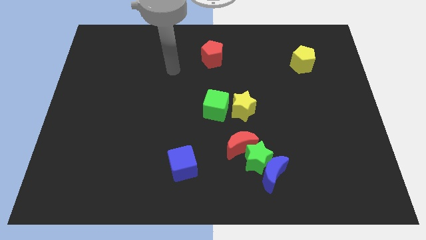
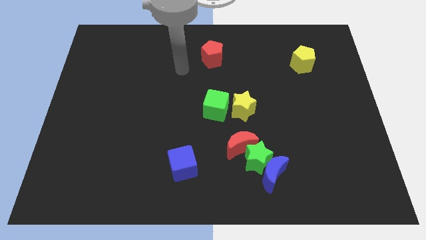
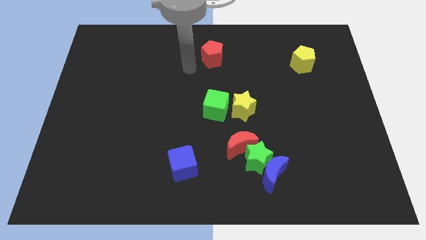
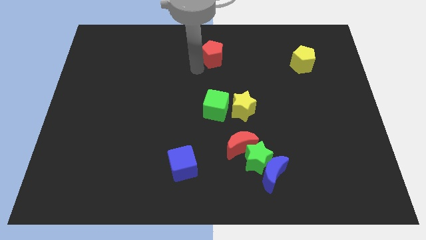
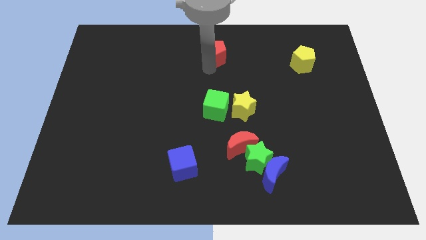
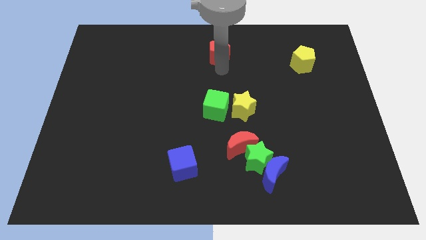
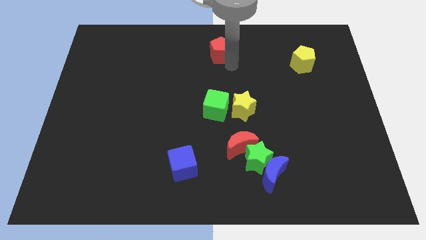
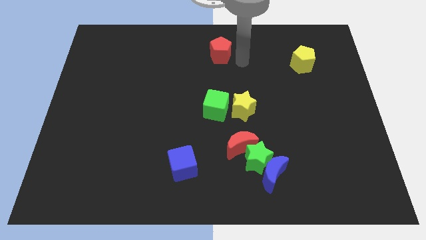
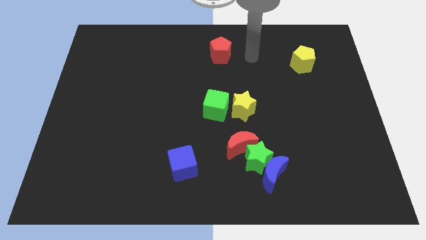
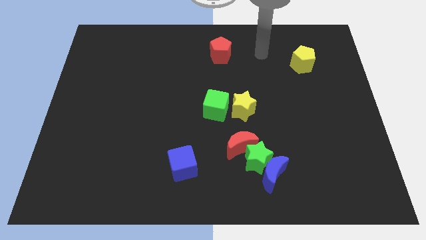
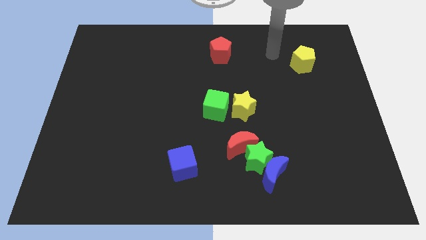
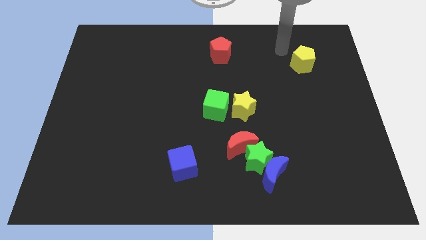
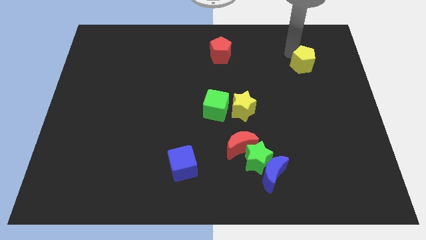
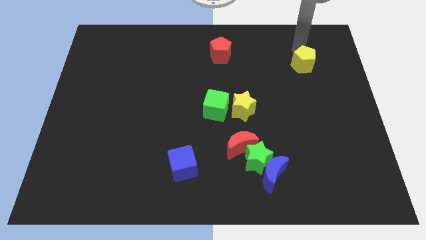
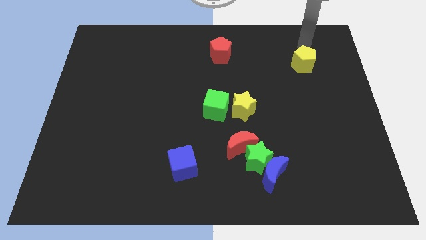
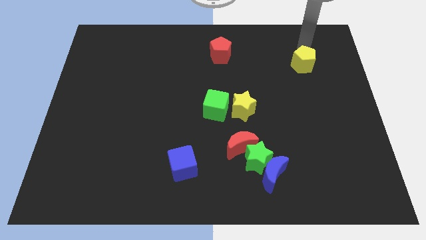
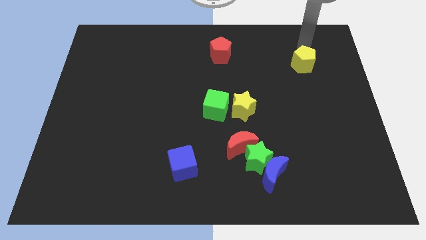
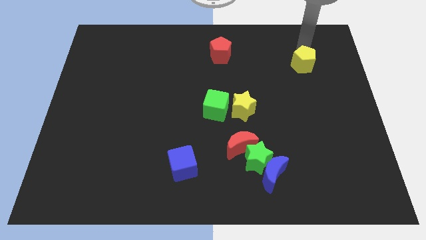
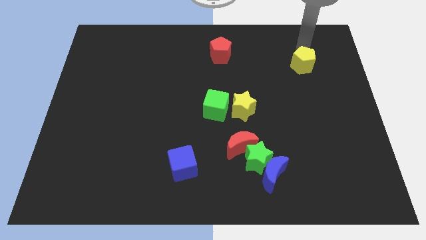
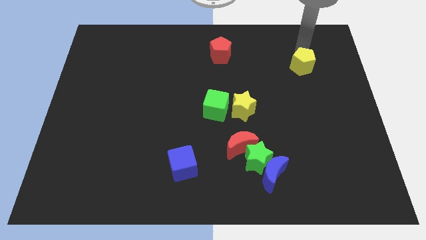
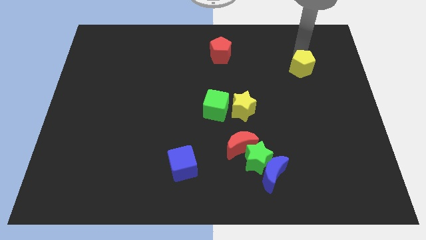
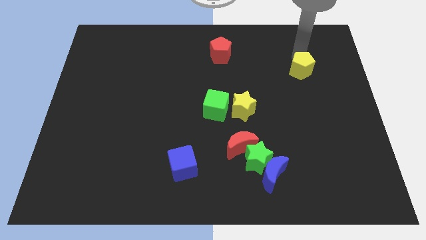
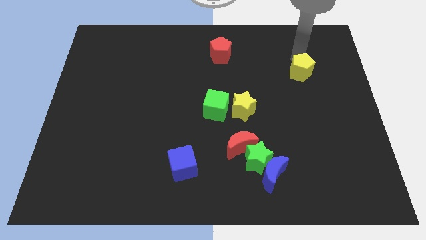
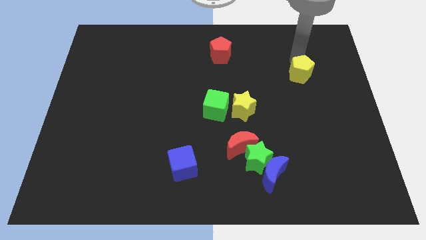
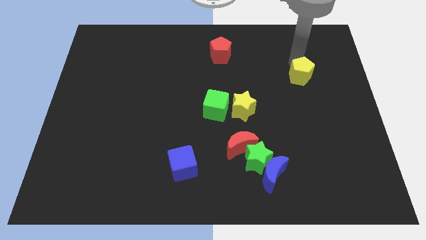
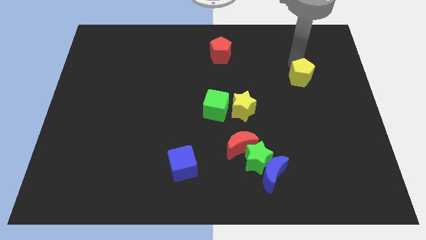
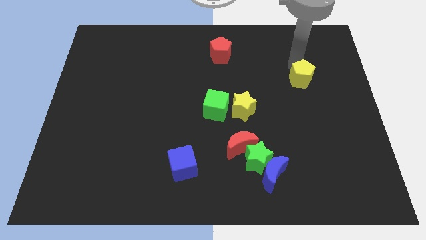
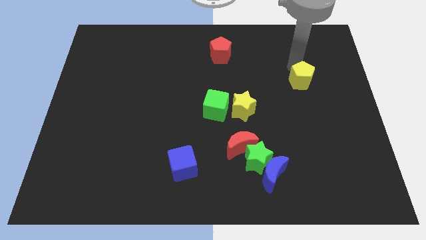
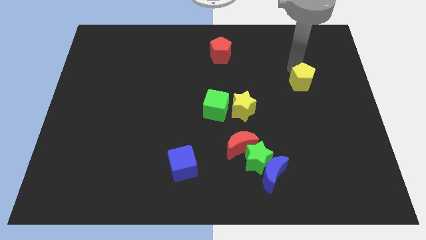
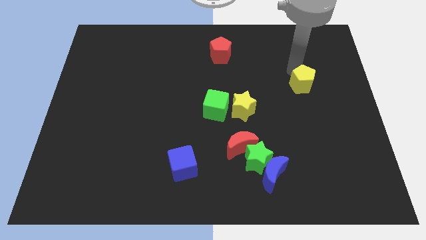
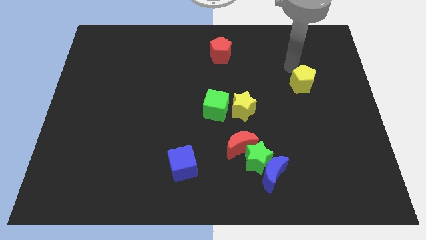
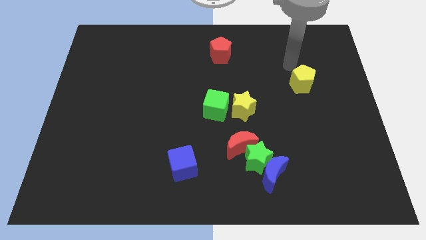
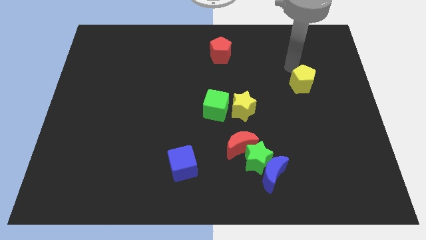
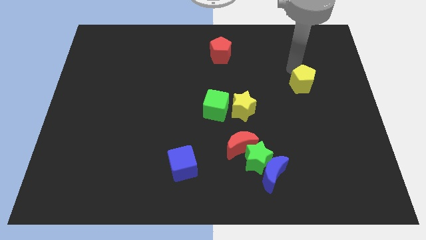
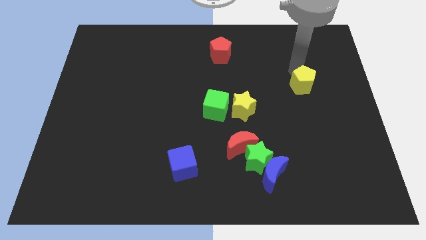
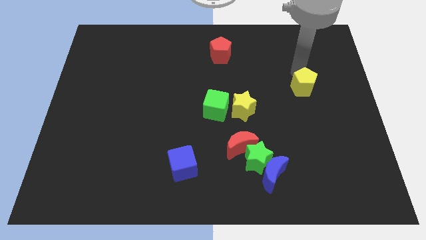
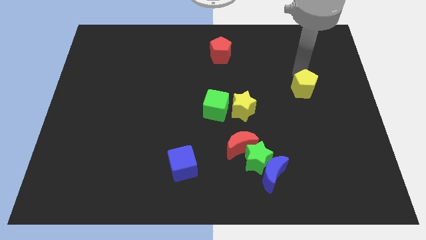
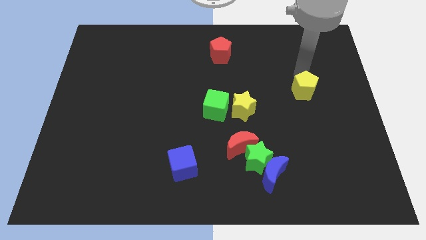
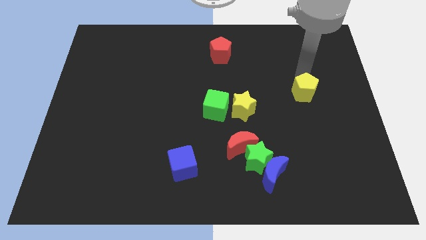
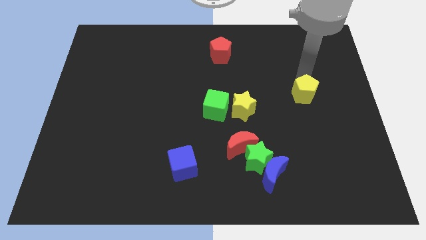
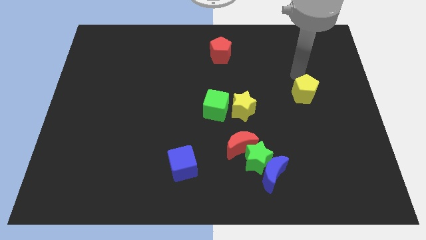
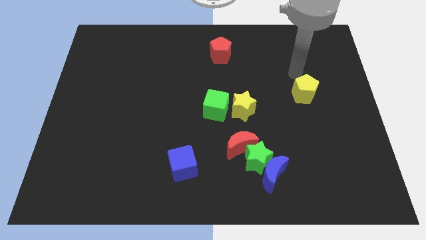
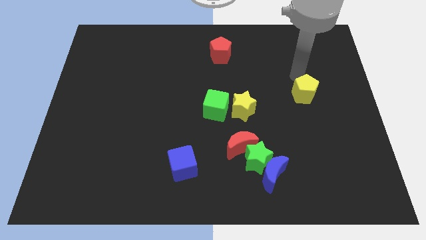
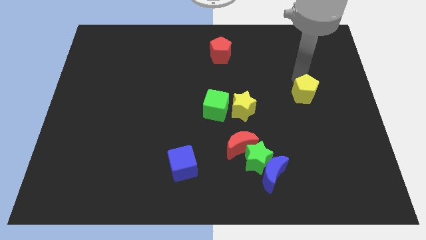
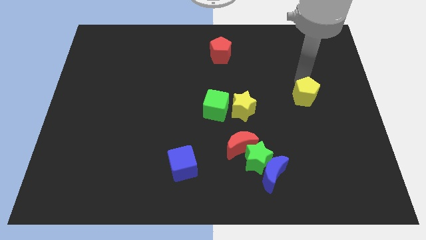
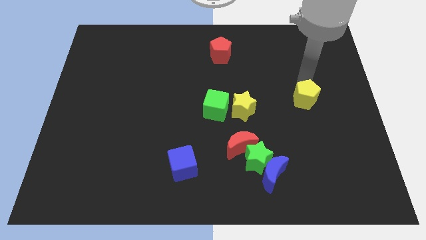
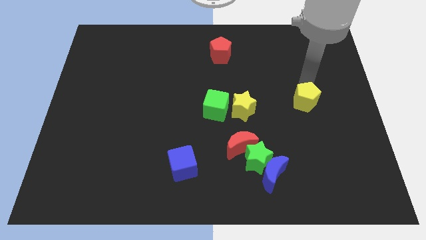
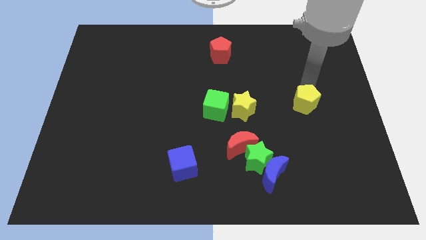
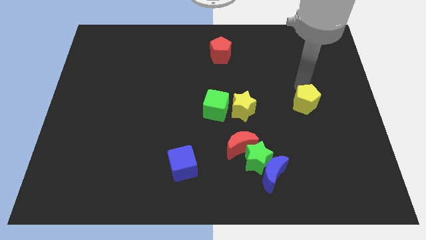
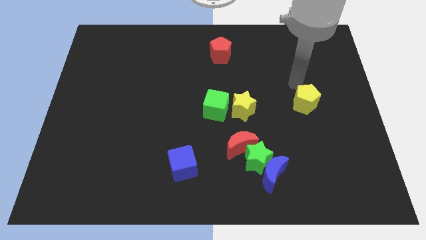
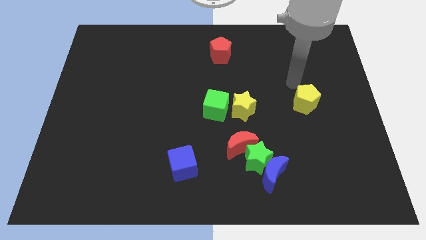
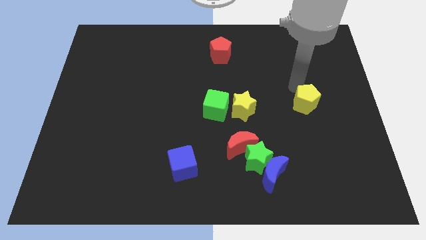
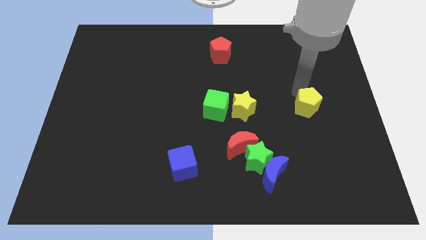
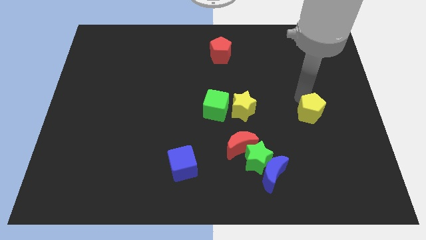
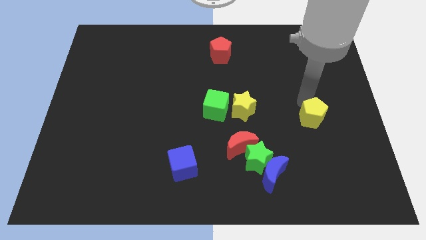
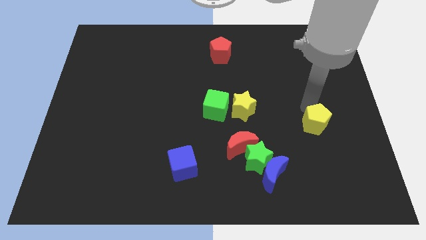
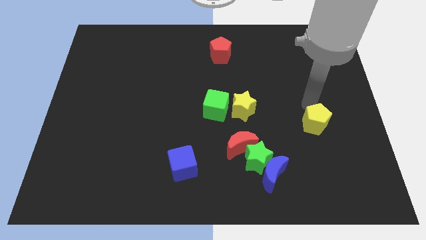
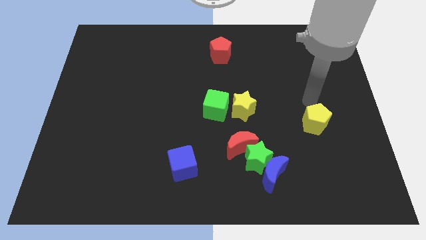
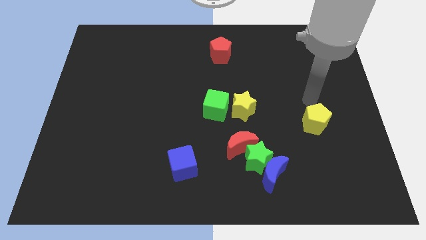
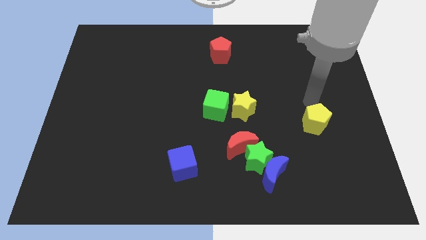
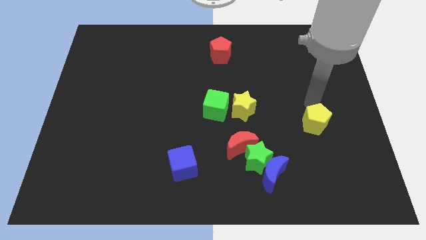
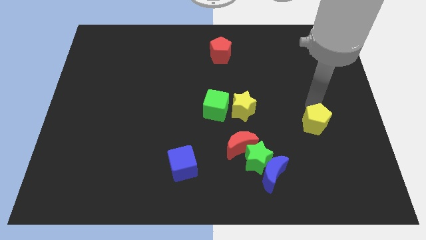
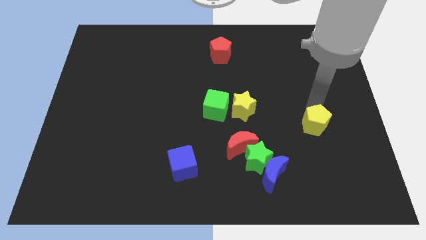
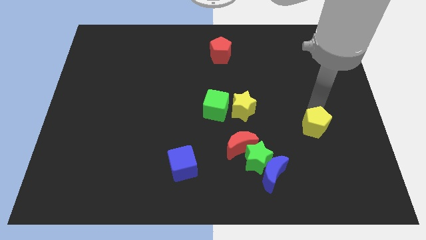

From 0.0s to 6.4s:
move the yellow pentagon downwards

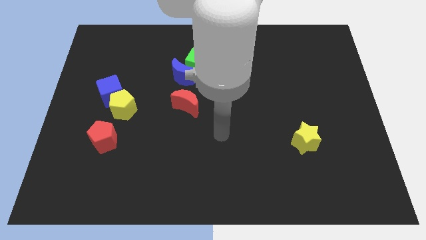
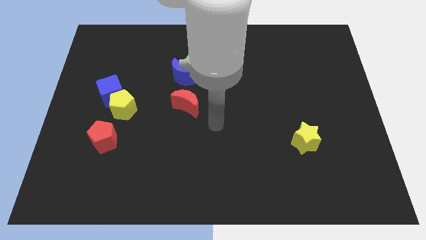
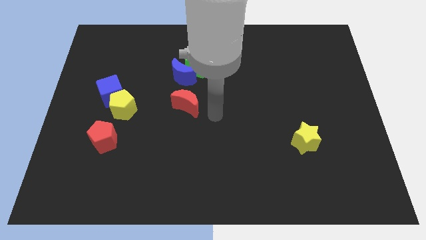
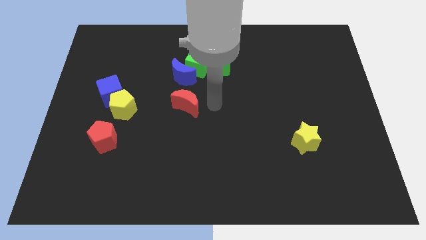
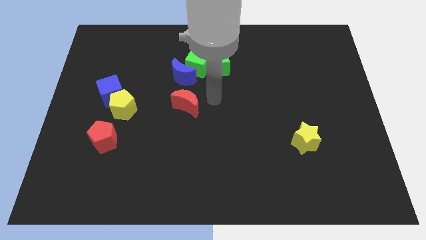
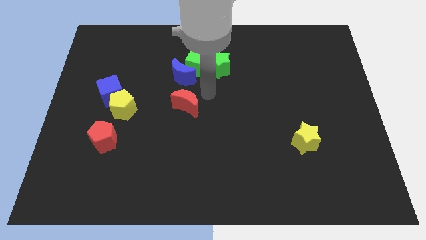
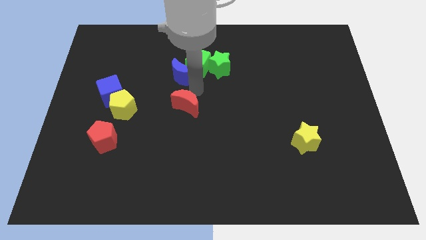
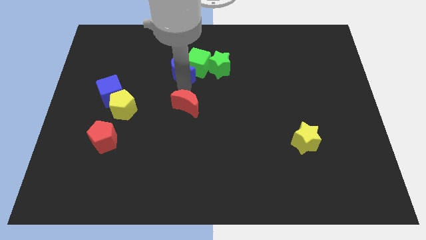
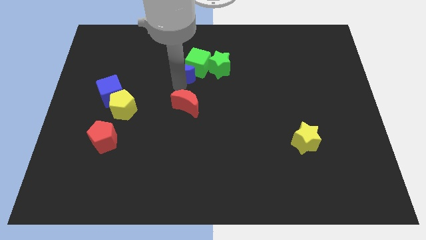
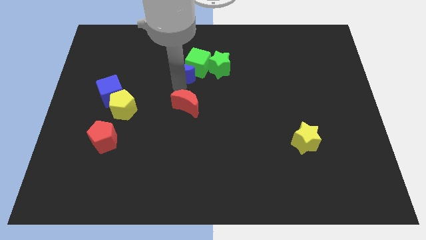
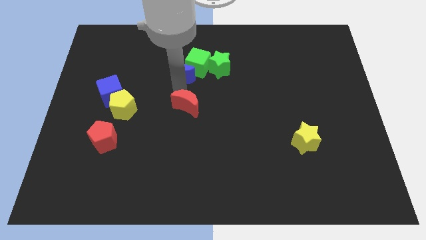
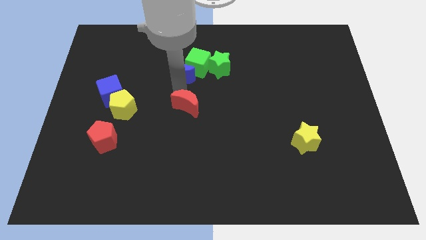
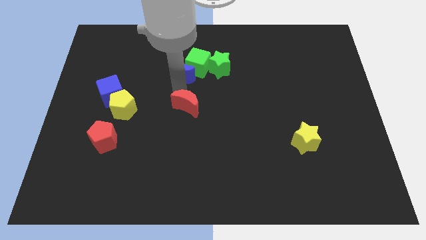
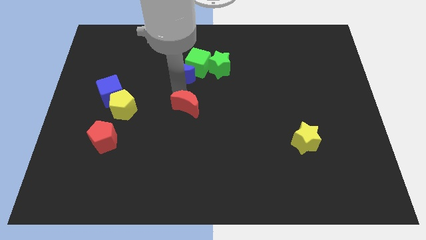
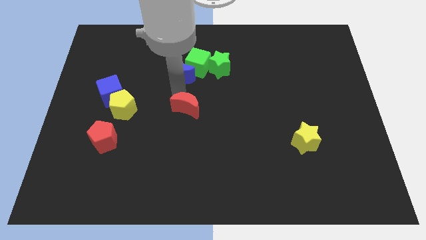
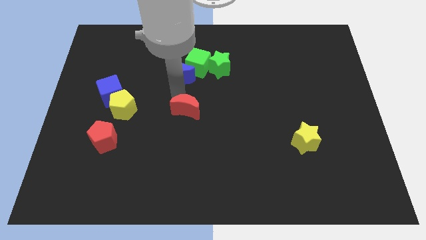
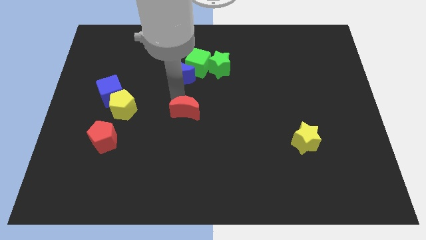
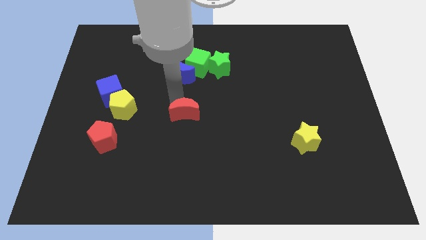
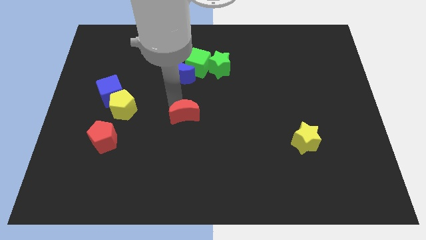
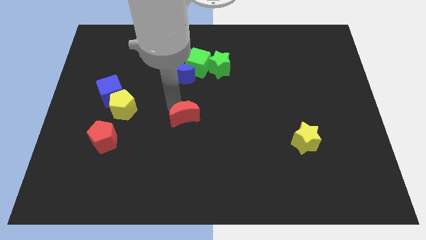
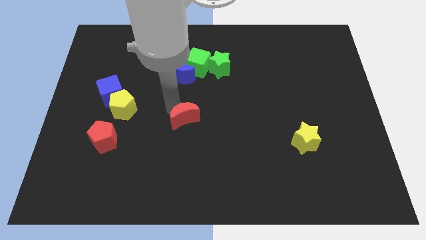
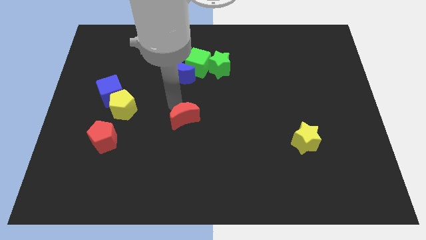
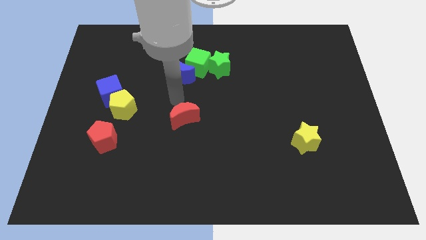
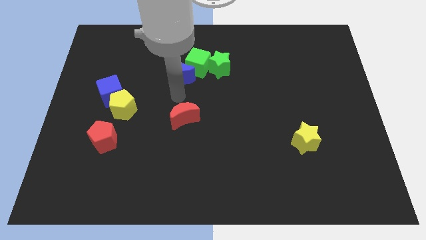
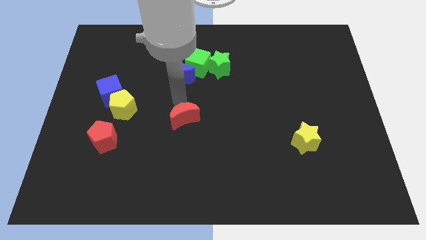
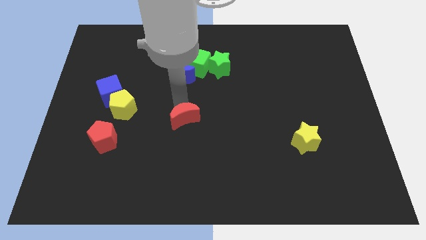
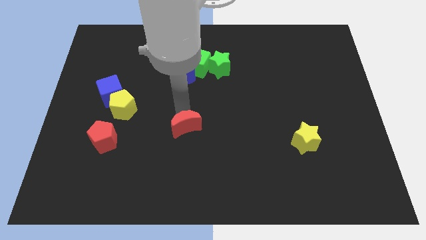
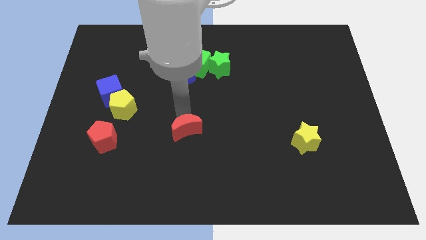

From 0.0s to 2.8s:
push the red moon down a little
